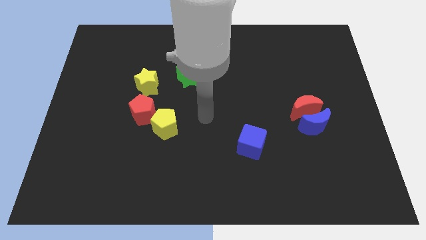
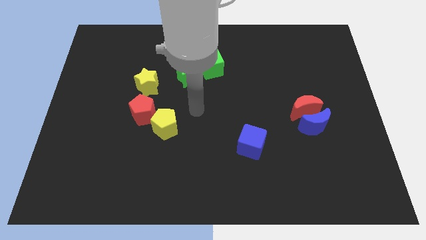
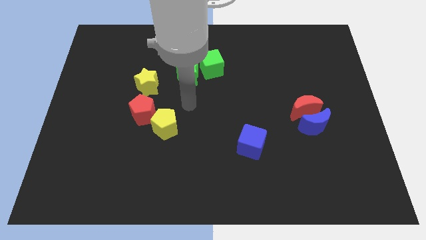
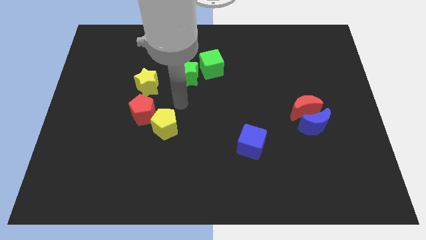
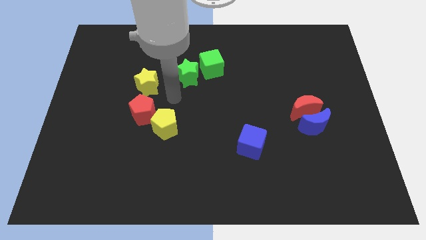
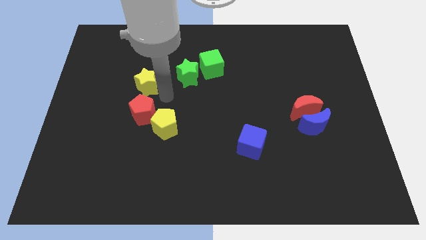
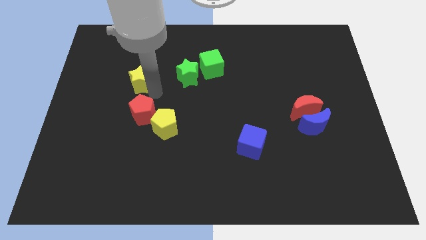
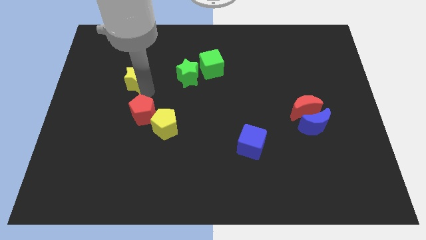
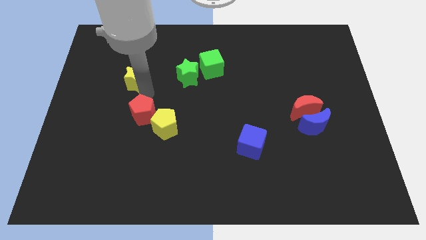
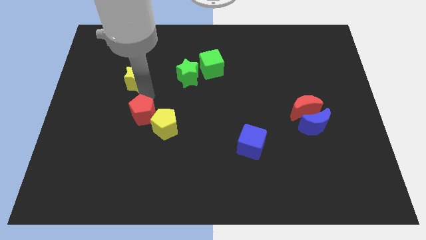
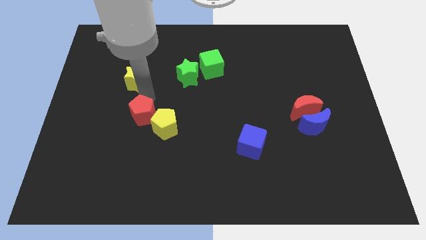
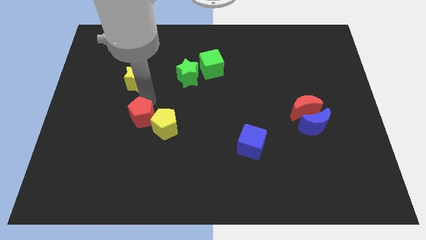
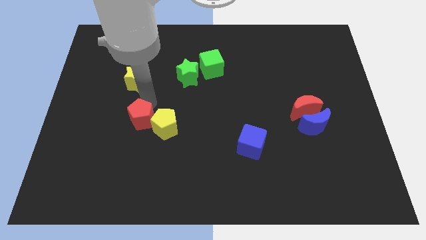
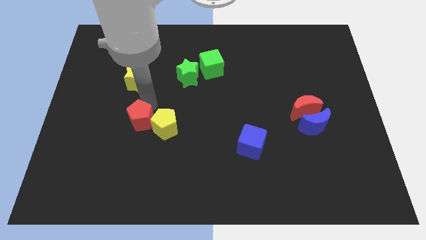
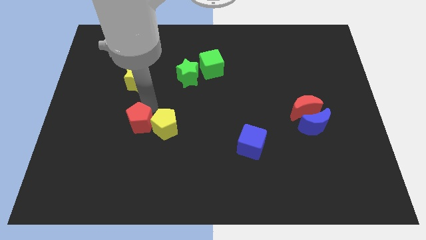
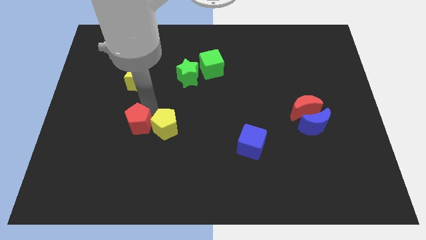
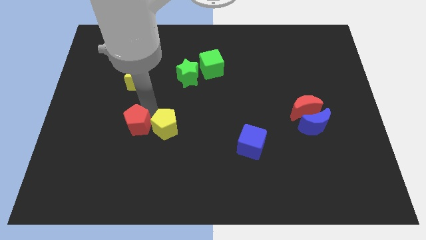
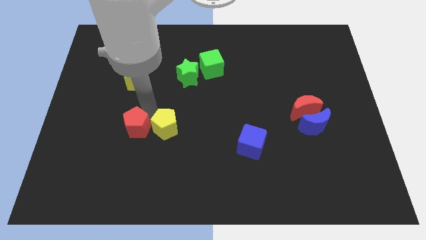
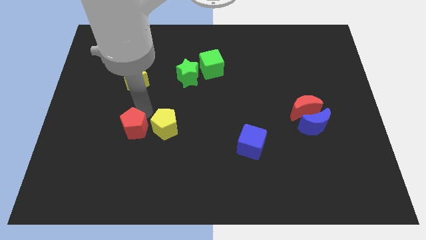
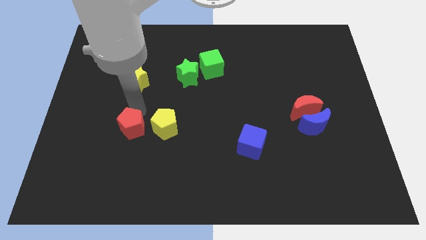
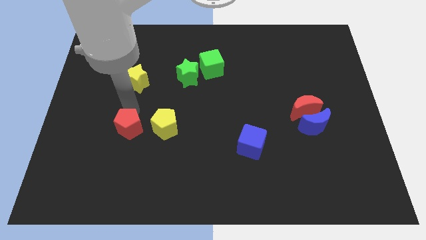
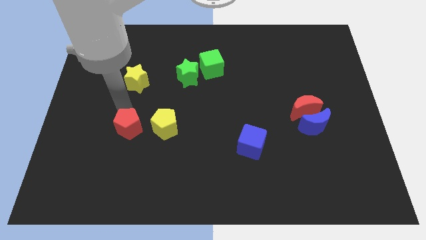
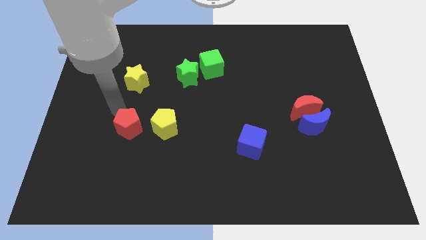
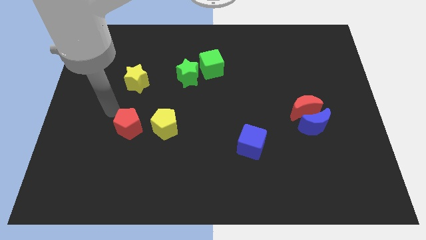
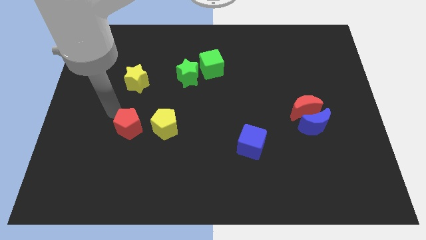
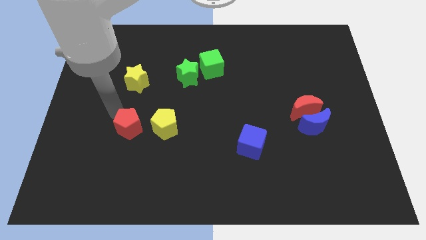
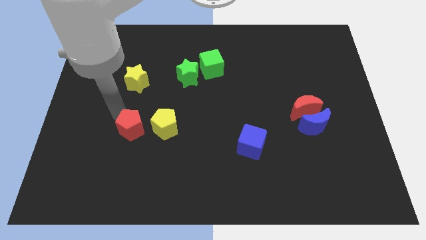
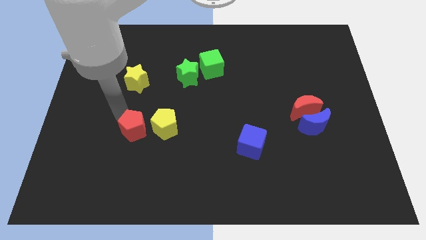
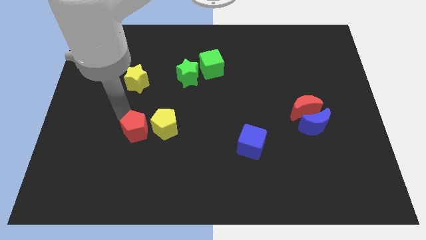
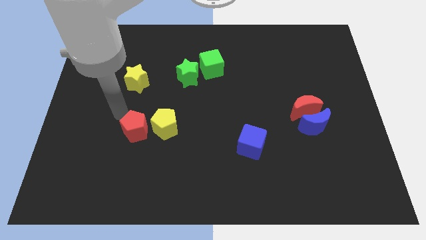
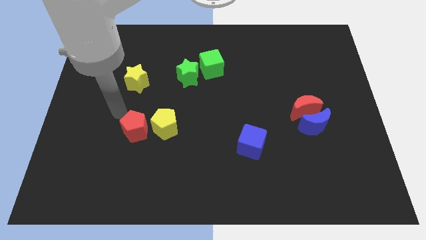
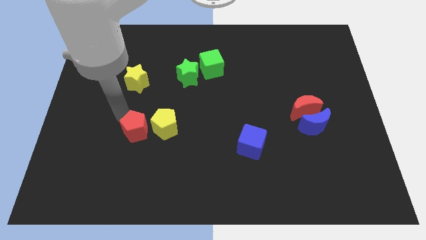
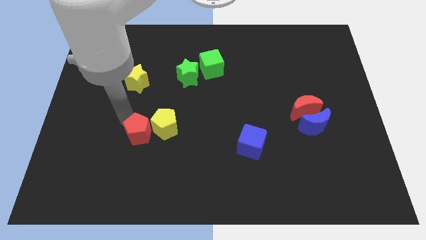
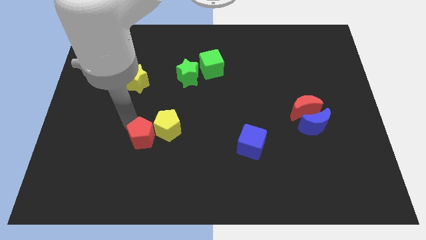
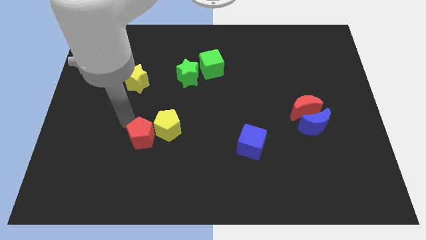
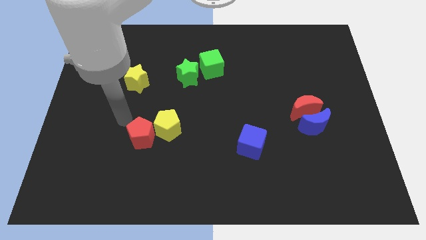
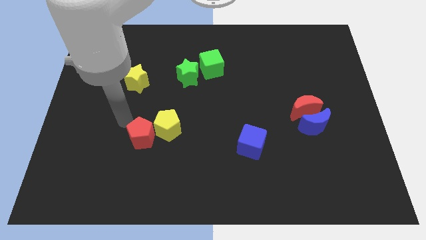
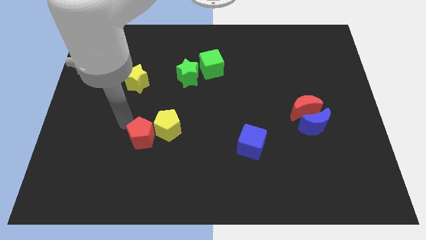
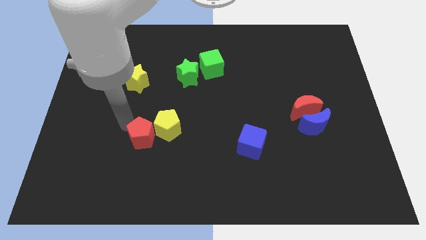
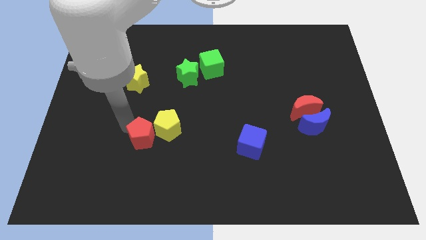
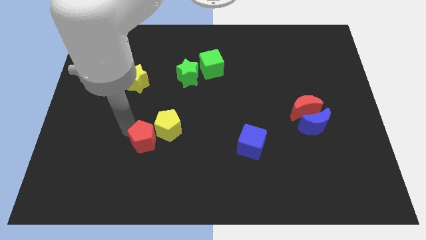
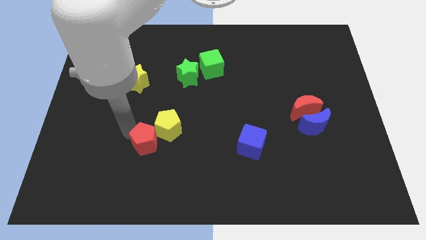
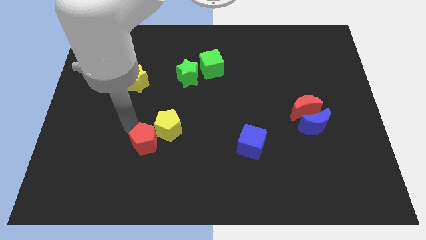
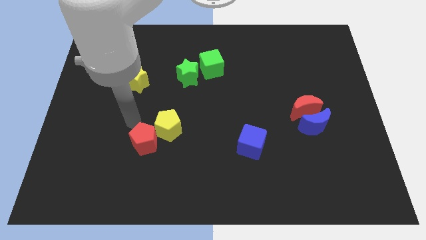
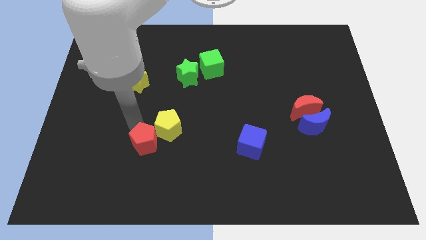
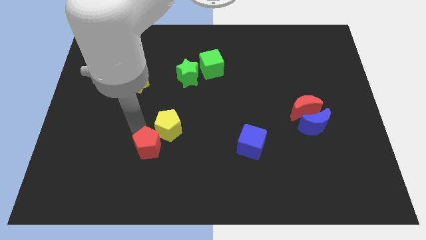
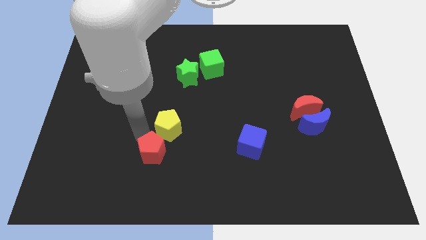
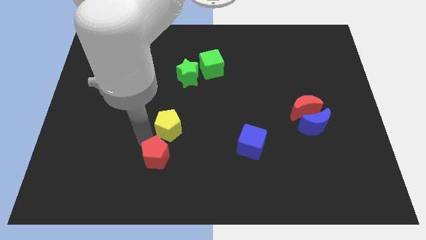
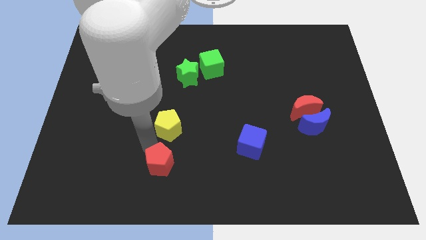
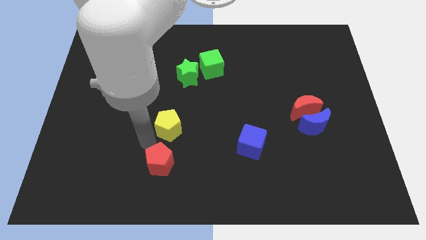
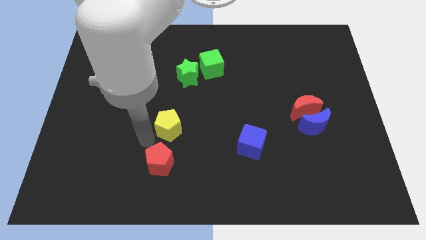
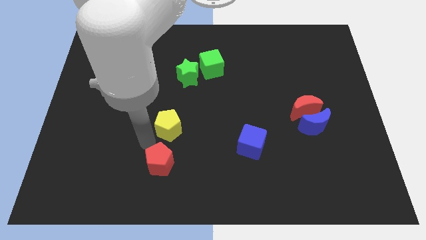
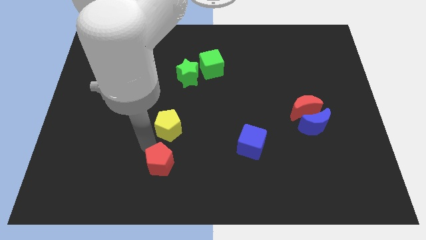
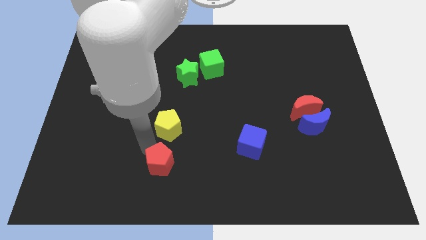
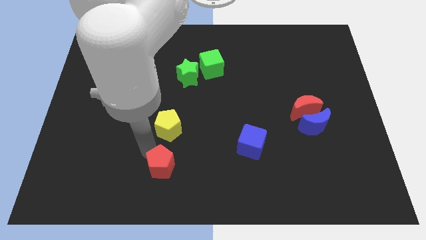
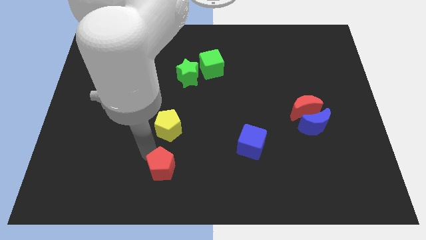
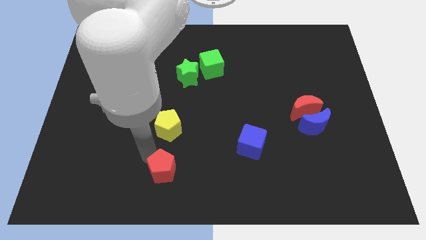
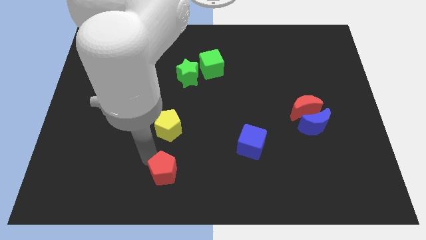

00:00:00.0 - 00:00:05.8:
put the red pentagon to the bottom

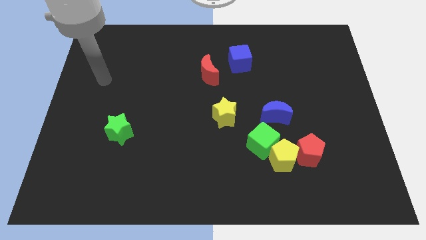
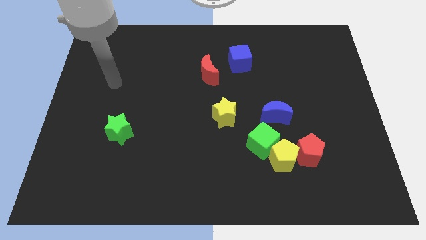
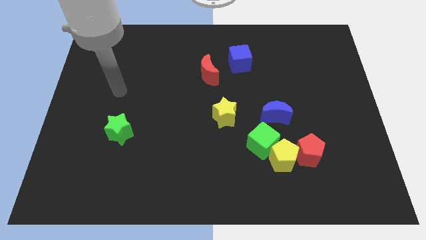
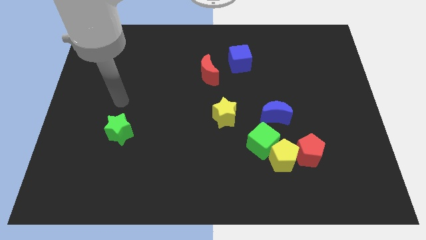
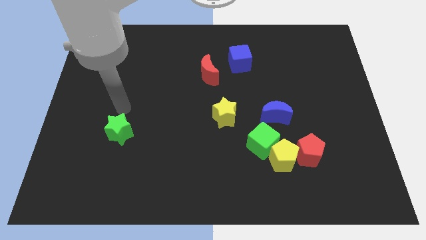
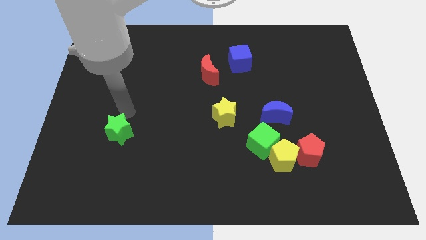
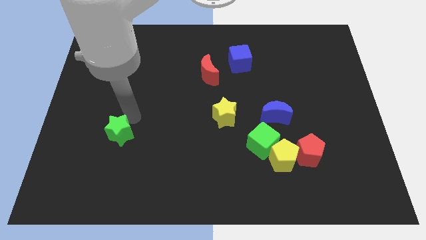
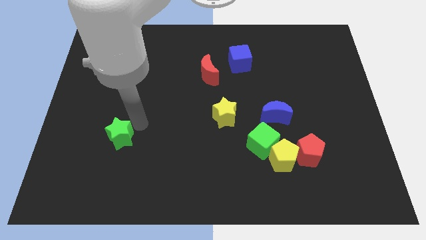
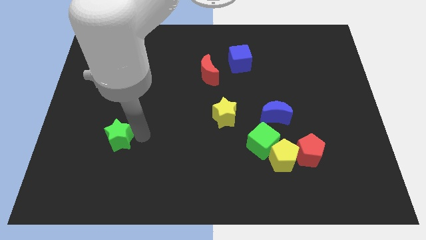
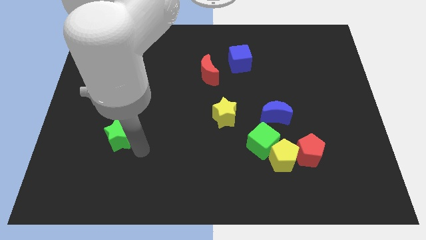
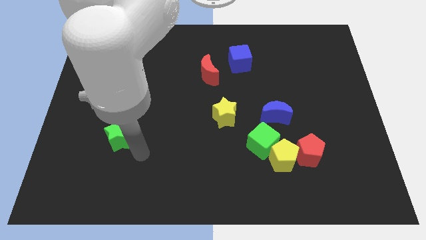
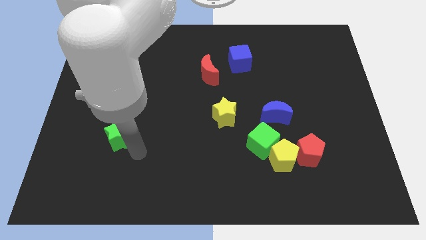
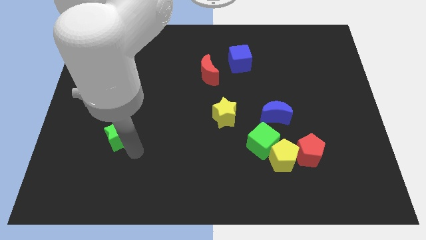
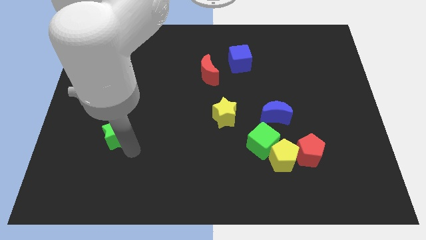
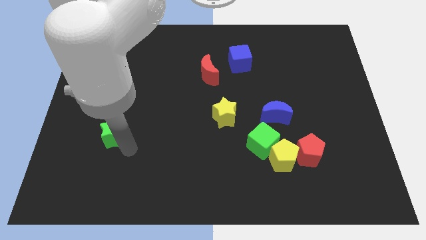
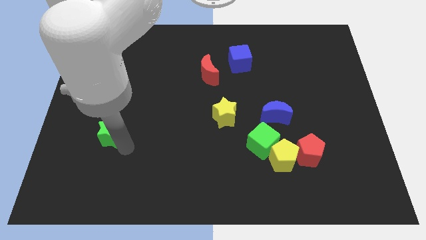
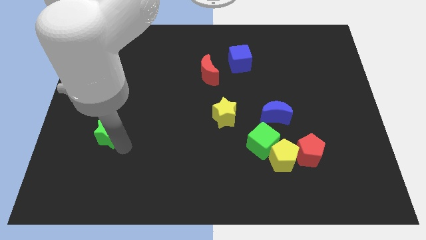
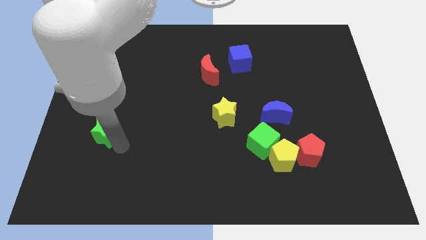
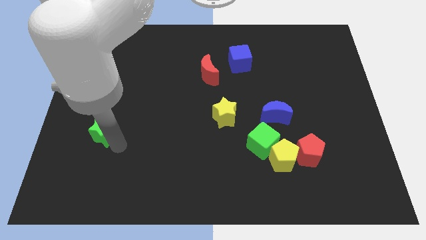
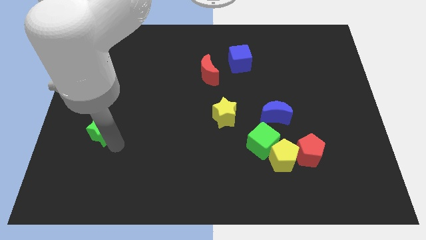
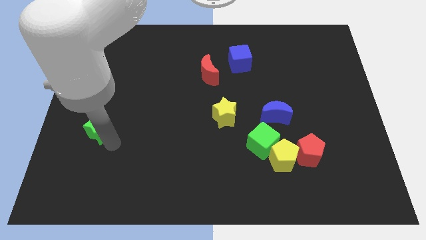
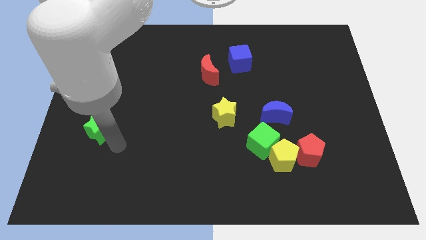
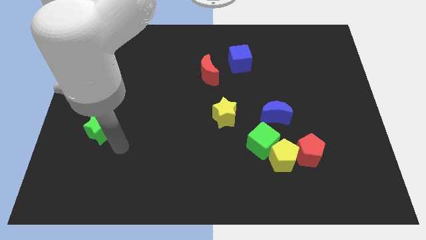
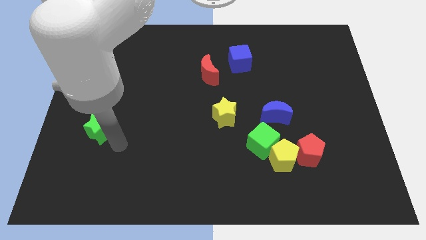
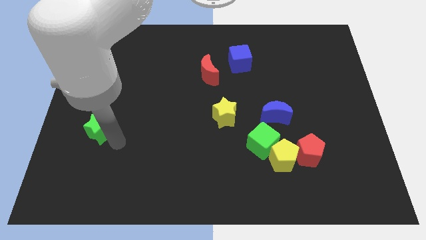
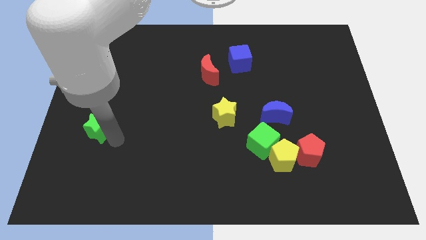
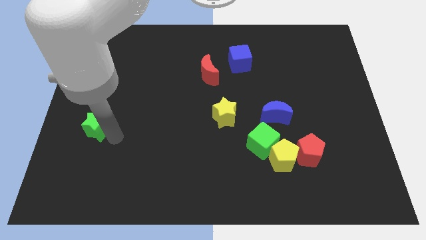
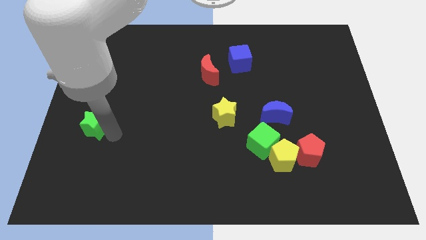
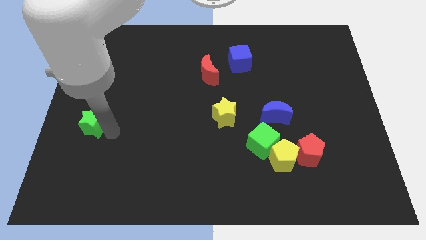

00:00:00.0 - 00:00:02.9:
slide the green star to the left side
